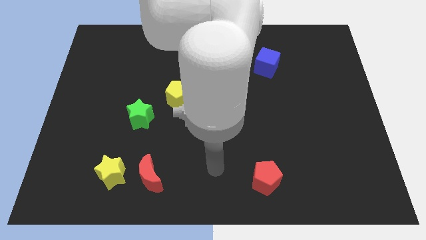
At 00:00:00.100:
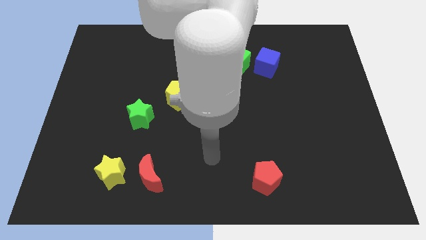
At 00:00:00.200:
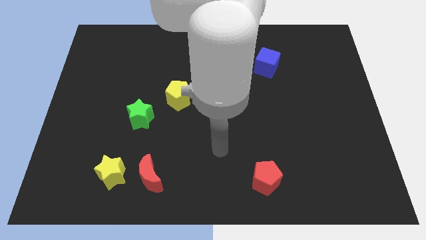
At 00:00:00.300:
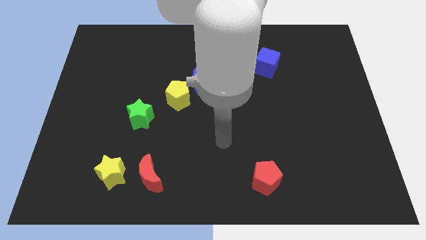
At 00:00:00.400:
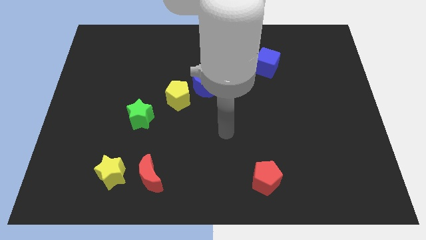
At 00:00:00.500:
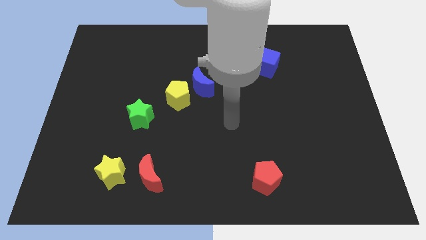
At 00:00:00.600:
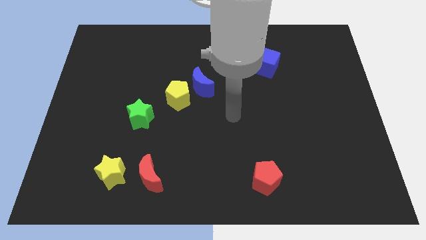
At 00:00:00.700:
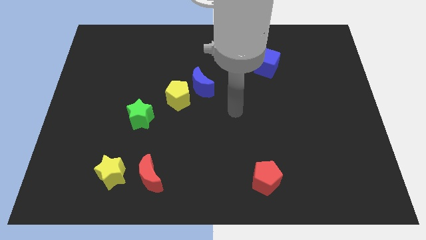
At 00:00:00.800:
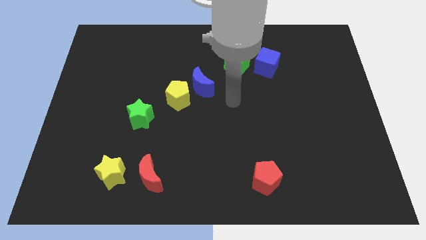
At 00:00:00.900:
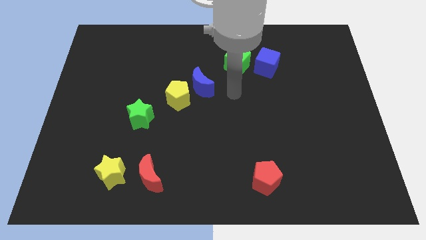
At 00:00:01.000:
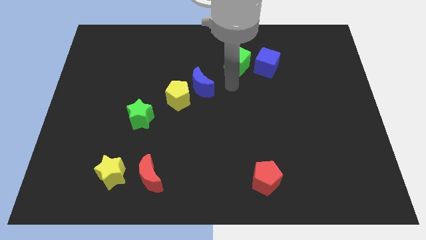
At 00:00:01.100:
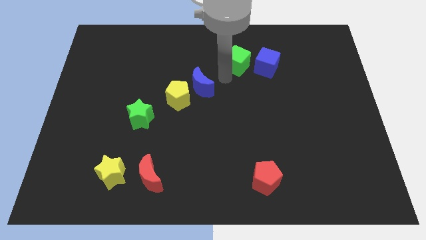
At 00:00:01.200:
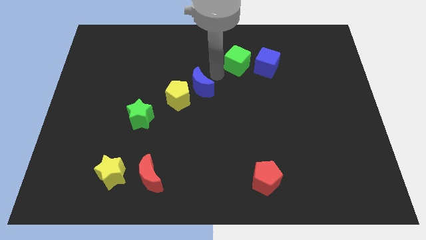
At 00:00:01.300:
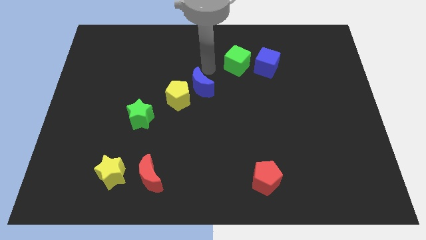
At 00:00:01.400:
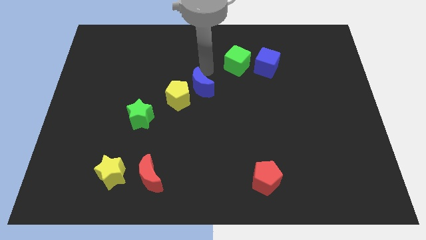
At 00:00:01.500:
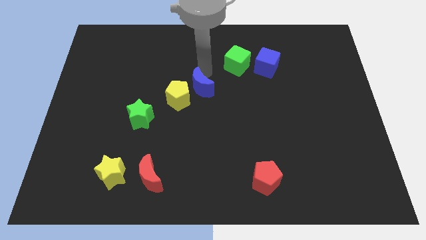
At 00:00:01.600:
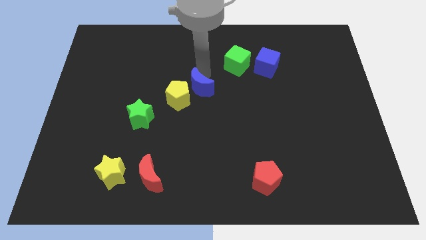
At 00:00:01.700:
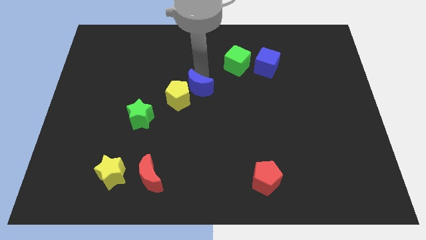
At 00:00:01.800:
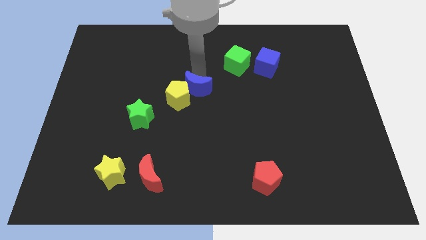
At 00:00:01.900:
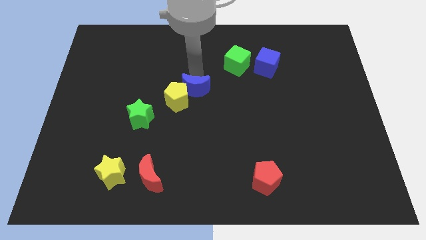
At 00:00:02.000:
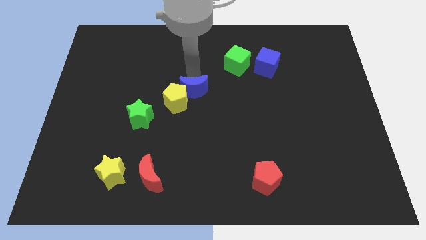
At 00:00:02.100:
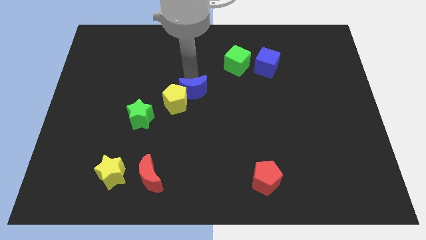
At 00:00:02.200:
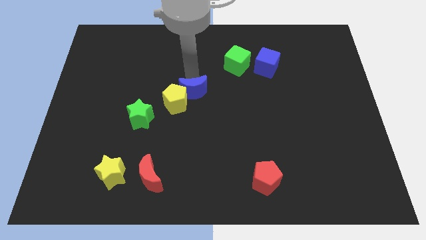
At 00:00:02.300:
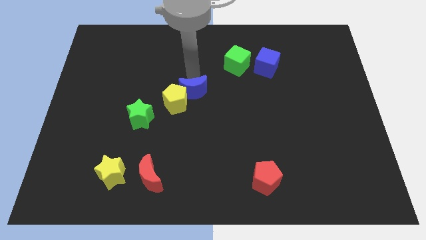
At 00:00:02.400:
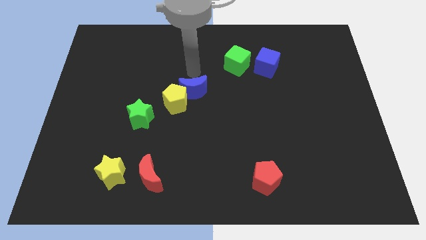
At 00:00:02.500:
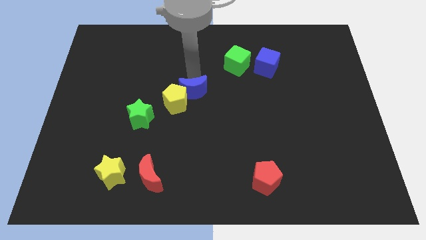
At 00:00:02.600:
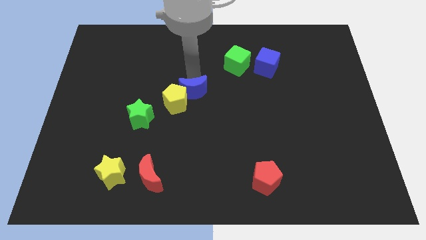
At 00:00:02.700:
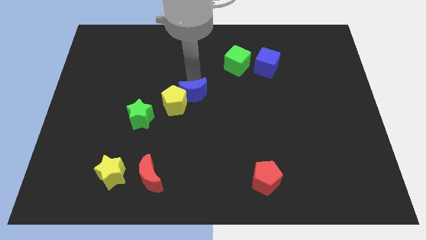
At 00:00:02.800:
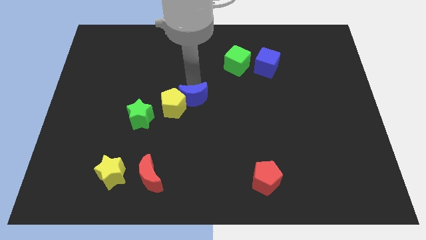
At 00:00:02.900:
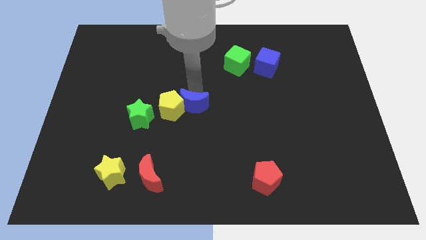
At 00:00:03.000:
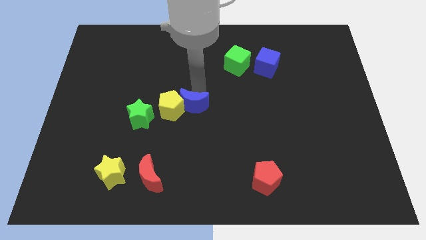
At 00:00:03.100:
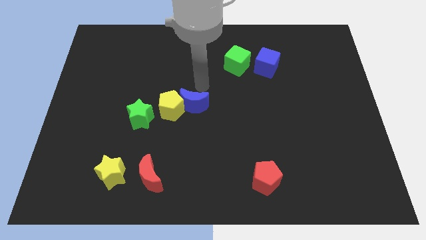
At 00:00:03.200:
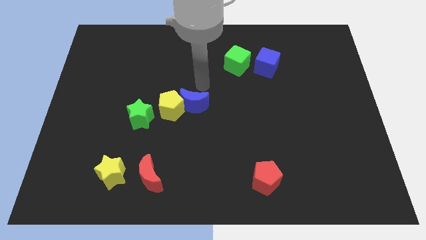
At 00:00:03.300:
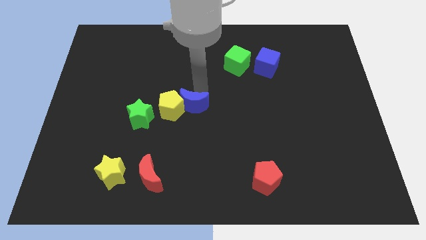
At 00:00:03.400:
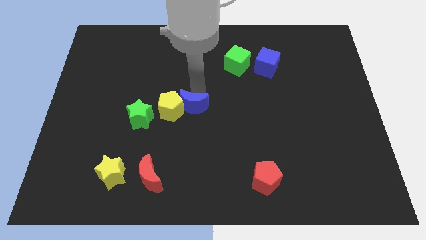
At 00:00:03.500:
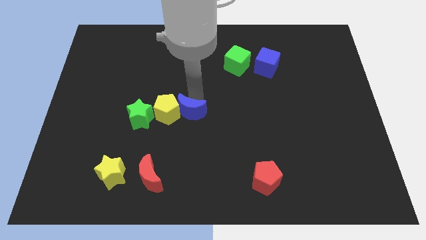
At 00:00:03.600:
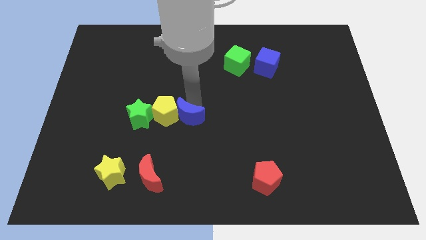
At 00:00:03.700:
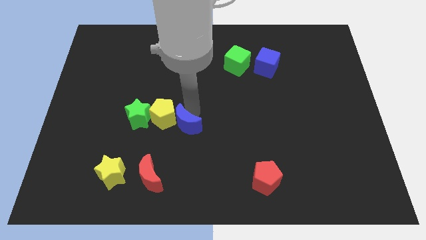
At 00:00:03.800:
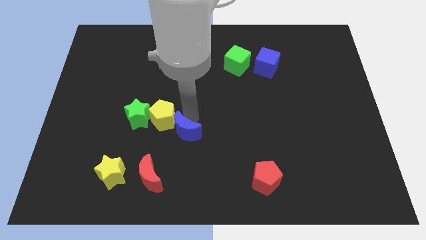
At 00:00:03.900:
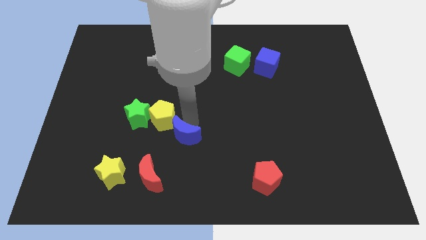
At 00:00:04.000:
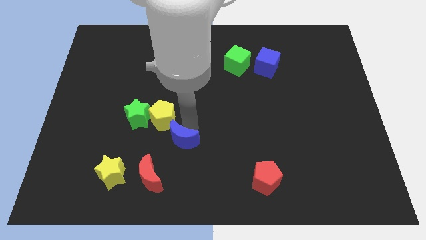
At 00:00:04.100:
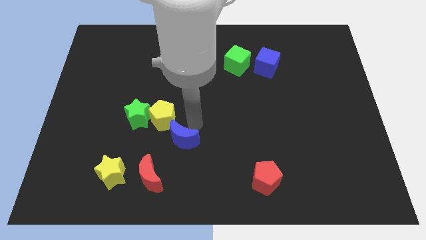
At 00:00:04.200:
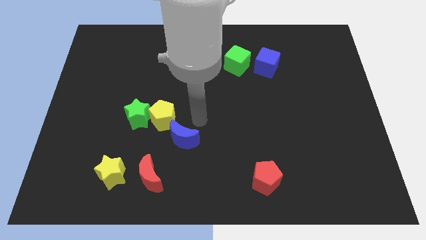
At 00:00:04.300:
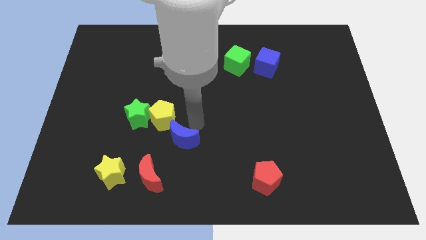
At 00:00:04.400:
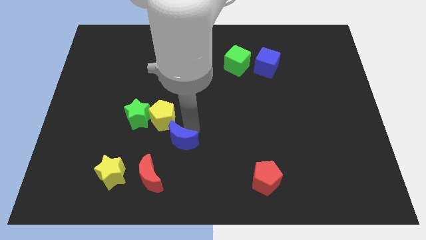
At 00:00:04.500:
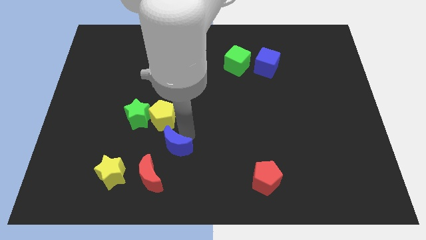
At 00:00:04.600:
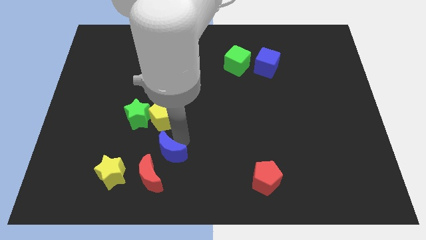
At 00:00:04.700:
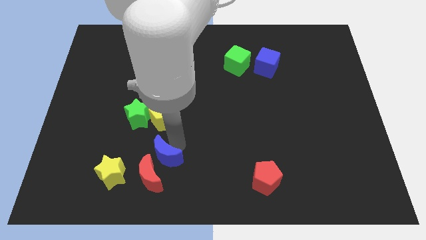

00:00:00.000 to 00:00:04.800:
put the blue moon to the red moon

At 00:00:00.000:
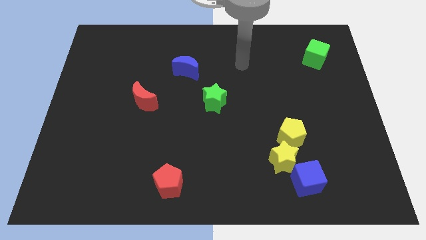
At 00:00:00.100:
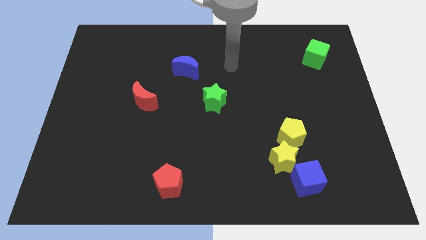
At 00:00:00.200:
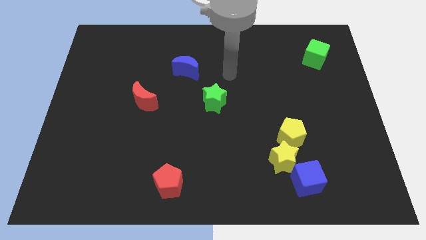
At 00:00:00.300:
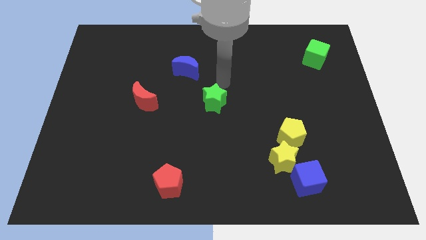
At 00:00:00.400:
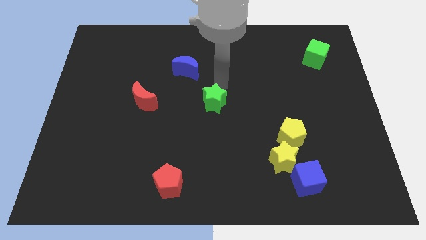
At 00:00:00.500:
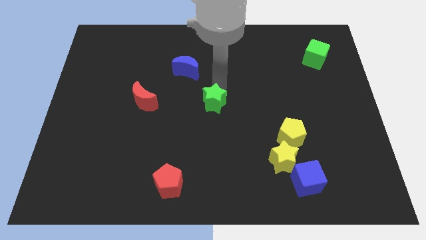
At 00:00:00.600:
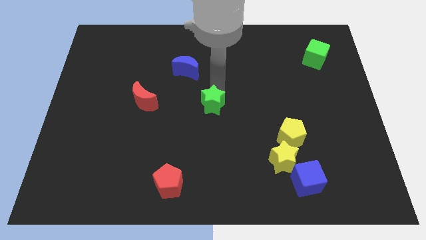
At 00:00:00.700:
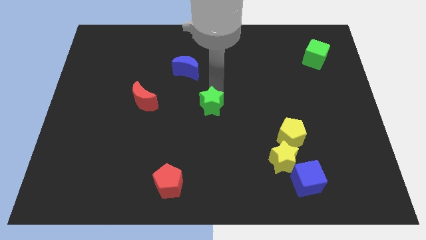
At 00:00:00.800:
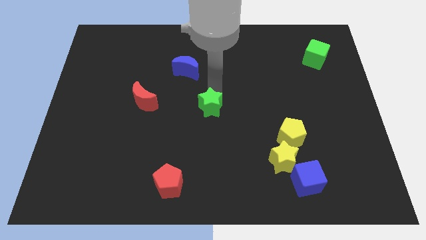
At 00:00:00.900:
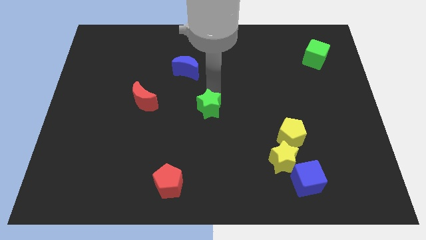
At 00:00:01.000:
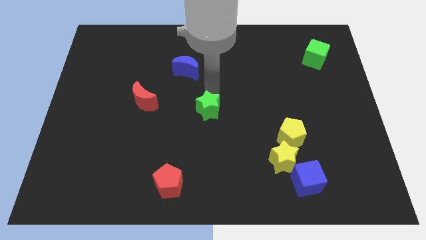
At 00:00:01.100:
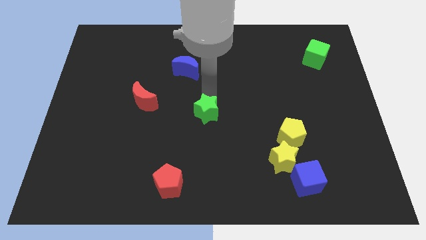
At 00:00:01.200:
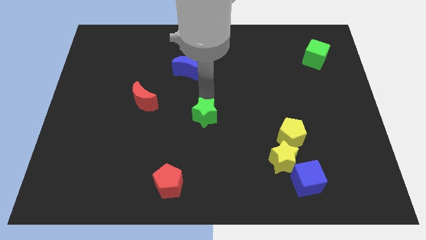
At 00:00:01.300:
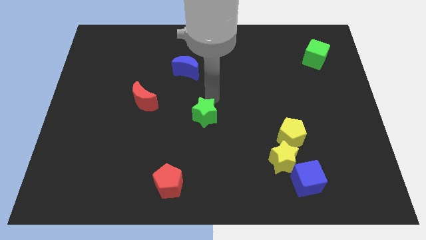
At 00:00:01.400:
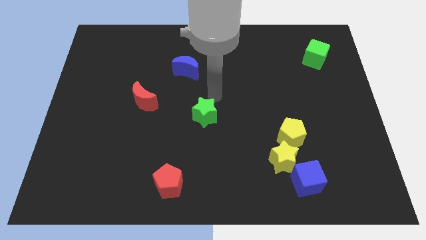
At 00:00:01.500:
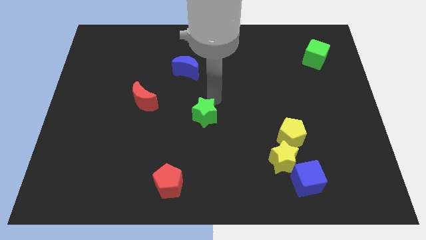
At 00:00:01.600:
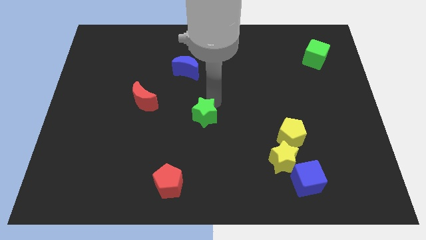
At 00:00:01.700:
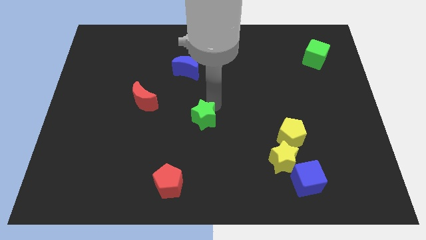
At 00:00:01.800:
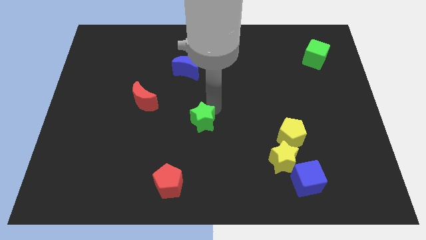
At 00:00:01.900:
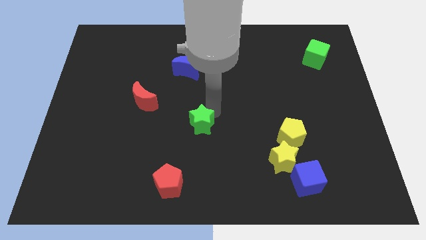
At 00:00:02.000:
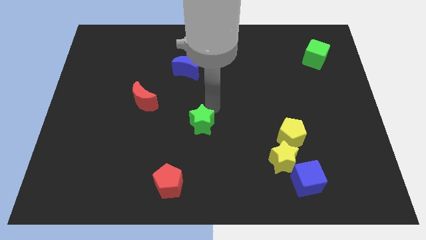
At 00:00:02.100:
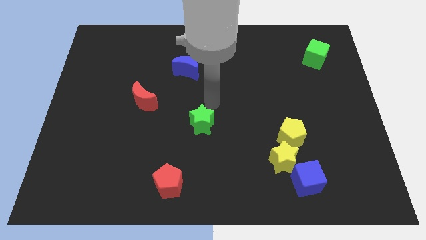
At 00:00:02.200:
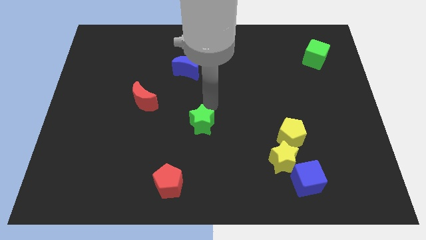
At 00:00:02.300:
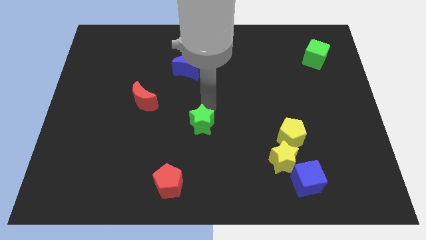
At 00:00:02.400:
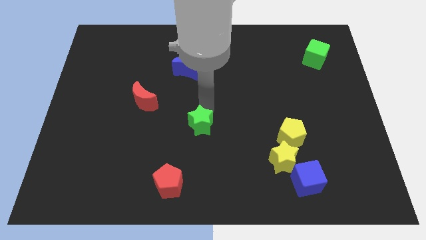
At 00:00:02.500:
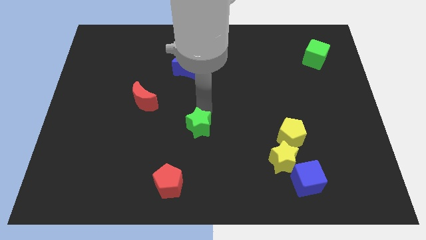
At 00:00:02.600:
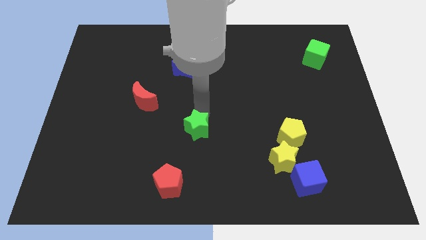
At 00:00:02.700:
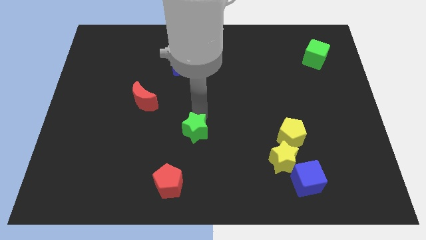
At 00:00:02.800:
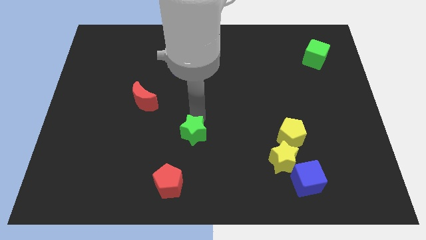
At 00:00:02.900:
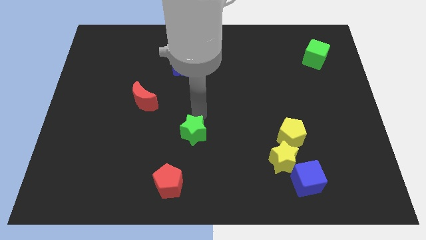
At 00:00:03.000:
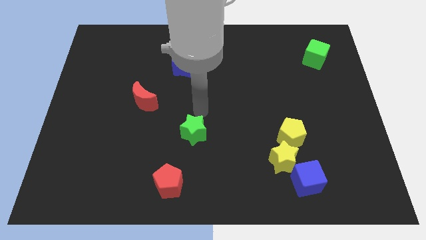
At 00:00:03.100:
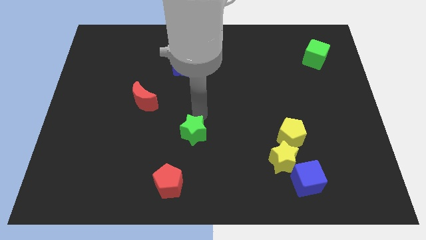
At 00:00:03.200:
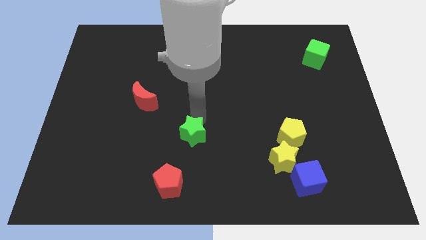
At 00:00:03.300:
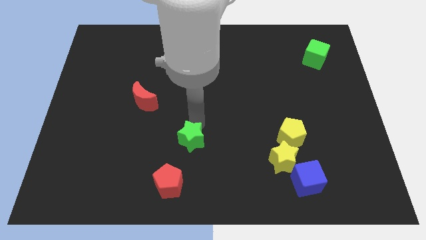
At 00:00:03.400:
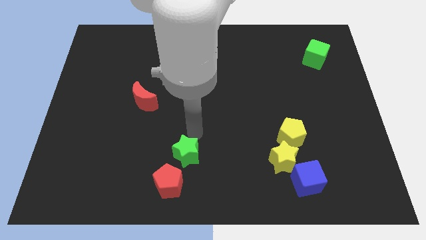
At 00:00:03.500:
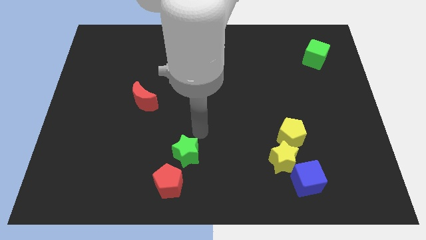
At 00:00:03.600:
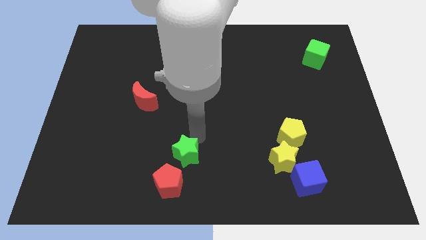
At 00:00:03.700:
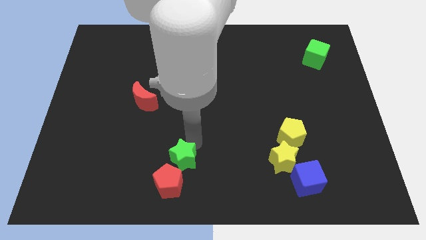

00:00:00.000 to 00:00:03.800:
move the green star towards the red pentagon
